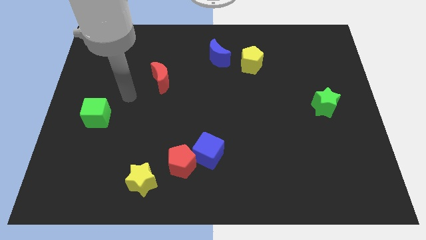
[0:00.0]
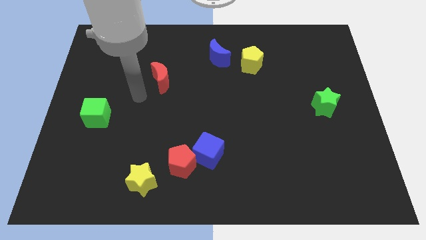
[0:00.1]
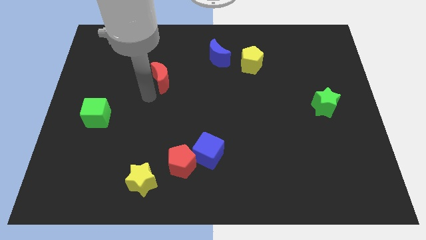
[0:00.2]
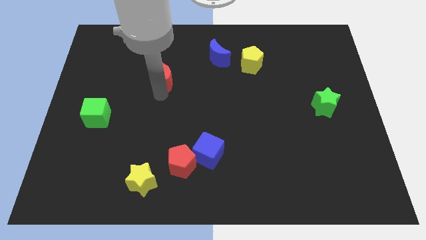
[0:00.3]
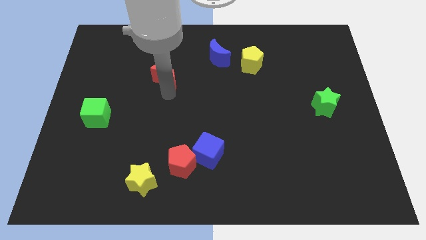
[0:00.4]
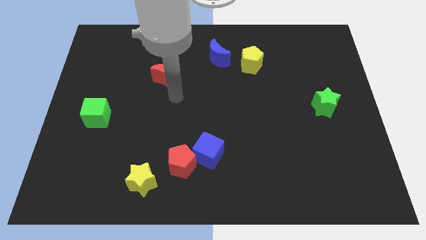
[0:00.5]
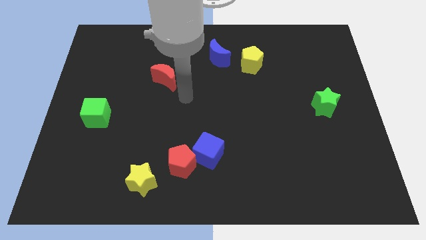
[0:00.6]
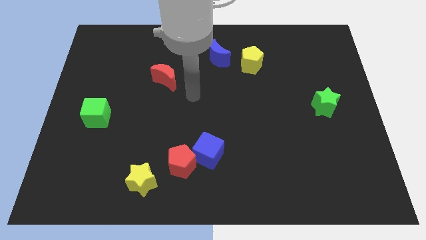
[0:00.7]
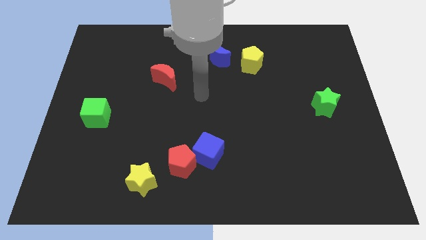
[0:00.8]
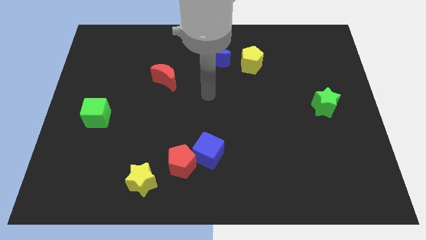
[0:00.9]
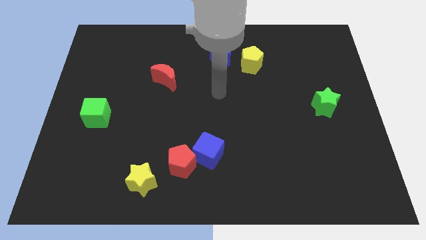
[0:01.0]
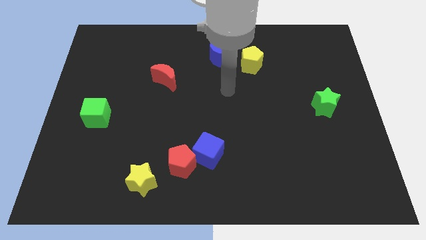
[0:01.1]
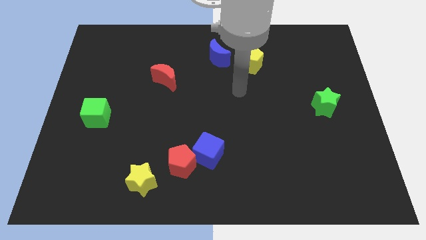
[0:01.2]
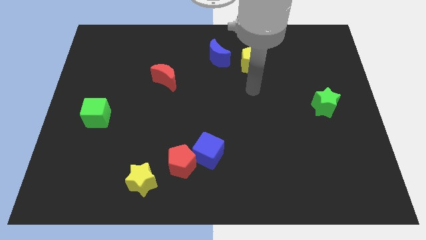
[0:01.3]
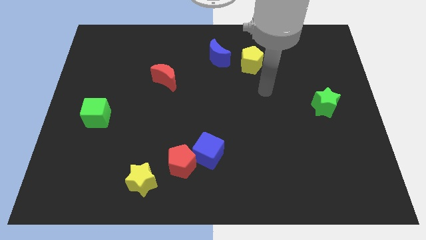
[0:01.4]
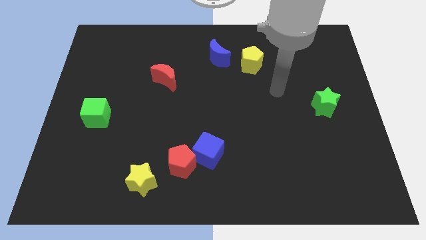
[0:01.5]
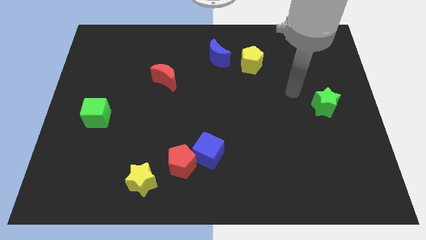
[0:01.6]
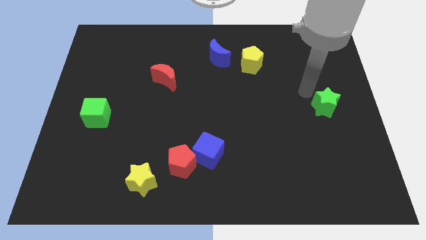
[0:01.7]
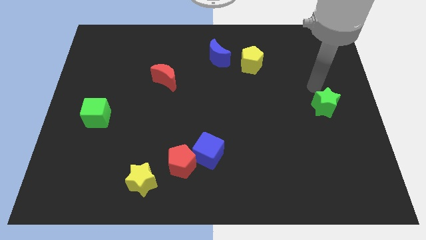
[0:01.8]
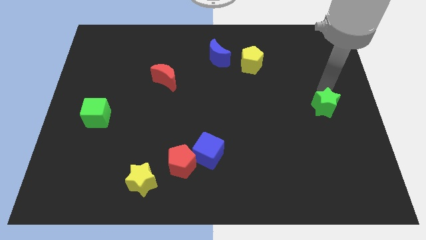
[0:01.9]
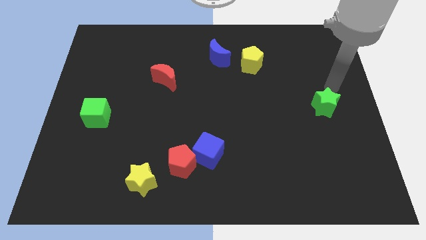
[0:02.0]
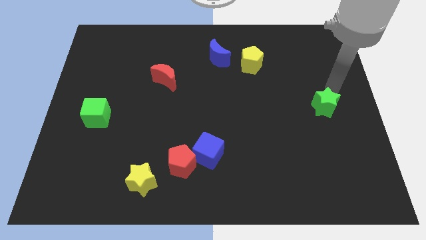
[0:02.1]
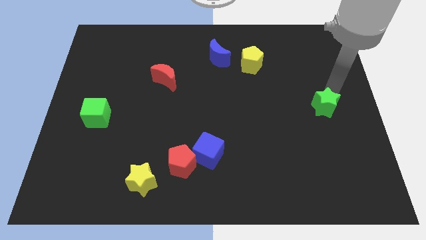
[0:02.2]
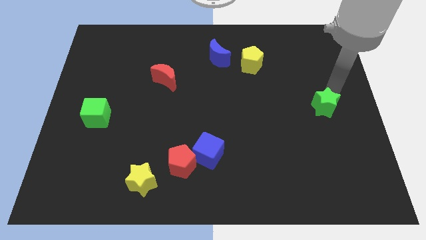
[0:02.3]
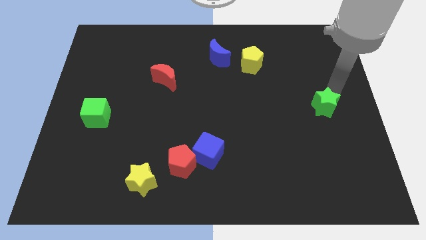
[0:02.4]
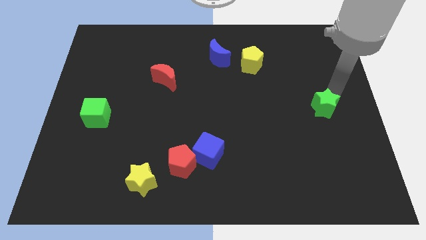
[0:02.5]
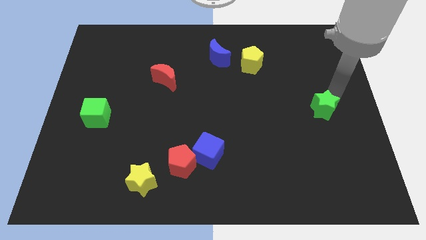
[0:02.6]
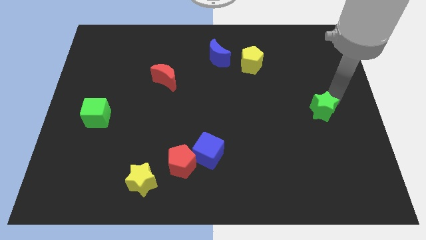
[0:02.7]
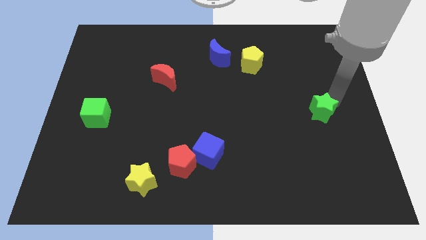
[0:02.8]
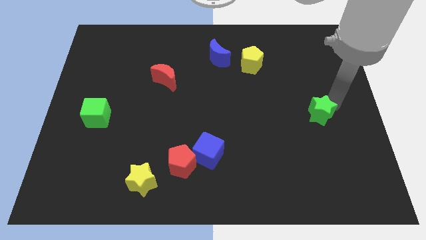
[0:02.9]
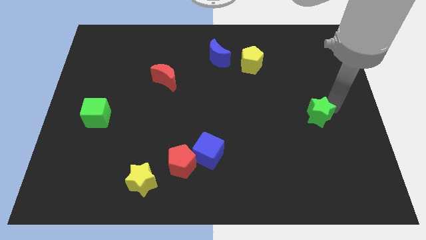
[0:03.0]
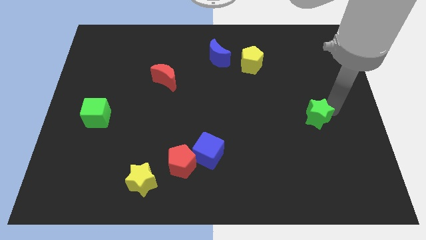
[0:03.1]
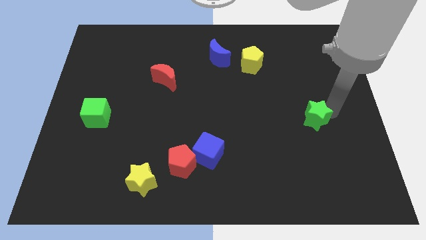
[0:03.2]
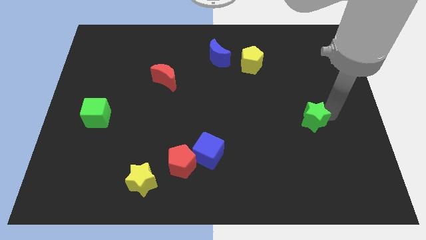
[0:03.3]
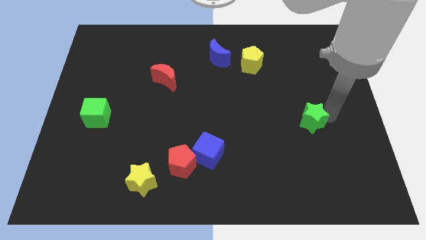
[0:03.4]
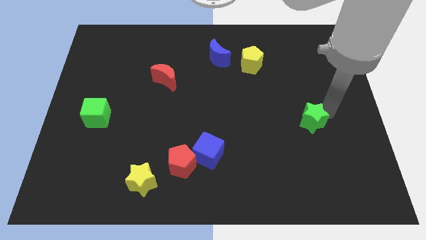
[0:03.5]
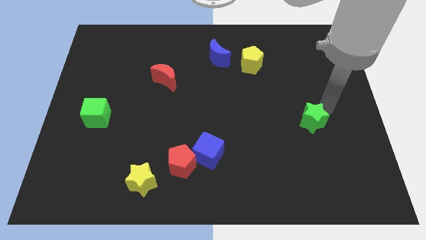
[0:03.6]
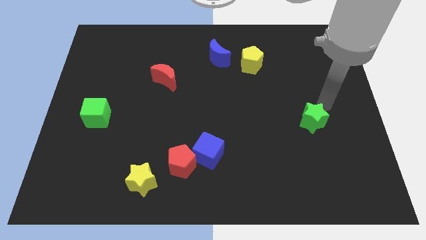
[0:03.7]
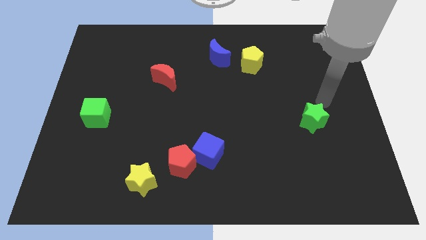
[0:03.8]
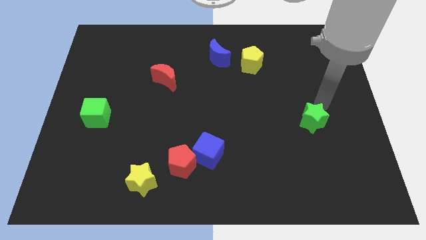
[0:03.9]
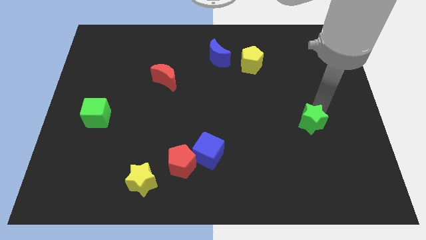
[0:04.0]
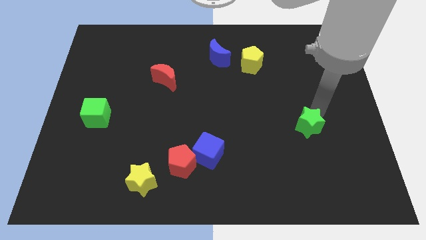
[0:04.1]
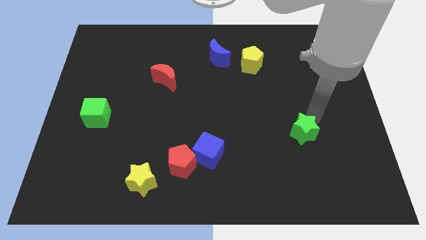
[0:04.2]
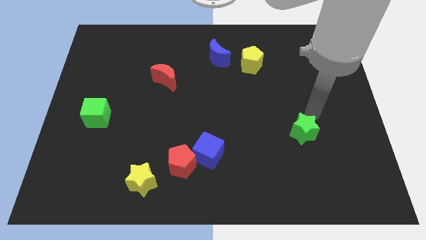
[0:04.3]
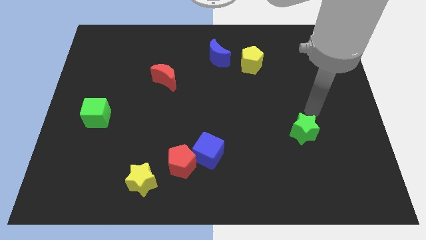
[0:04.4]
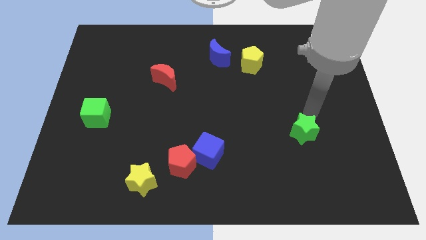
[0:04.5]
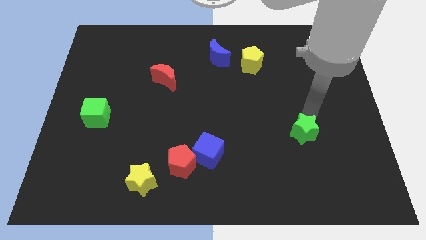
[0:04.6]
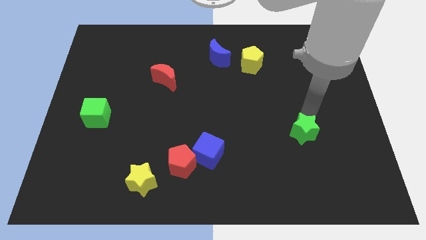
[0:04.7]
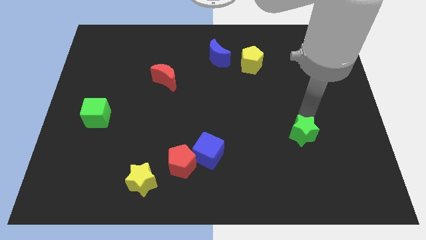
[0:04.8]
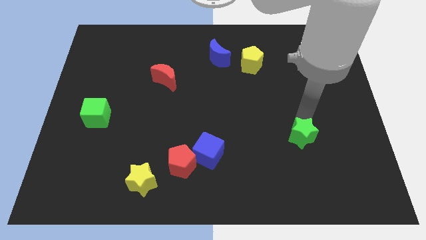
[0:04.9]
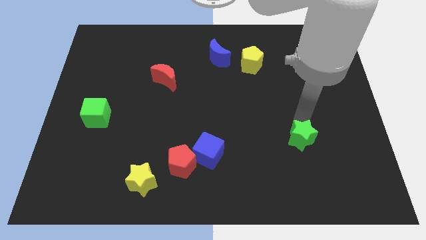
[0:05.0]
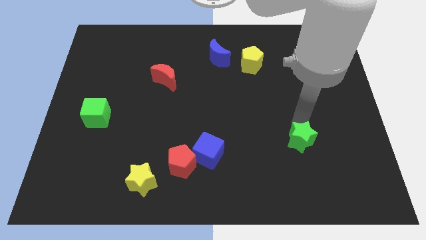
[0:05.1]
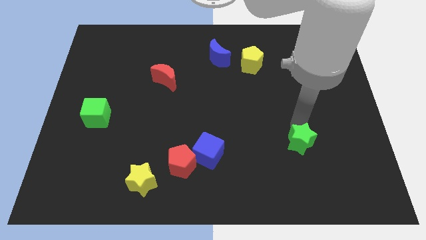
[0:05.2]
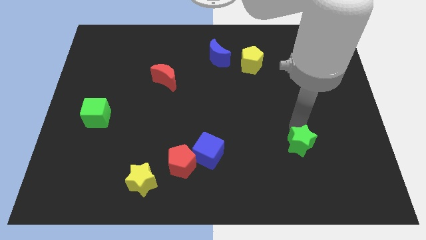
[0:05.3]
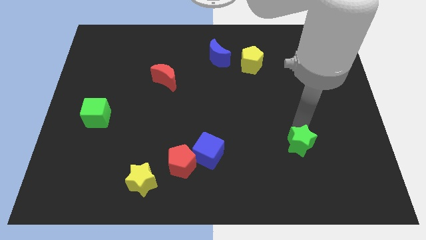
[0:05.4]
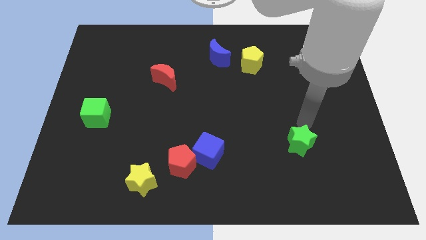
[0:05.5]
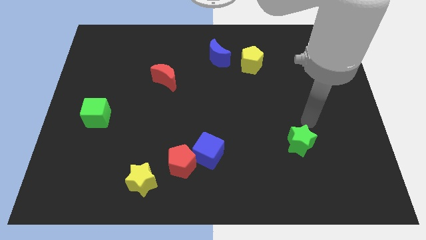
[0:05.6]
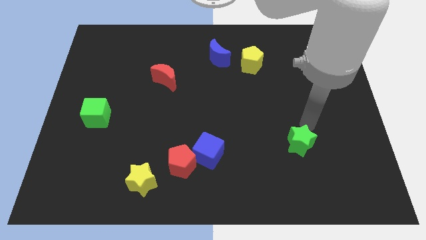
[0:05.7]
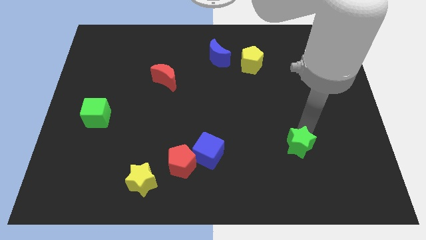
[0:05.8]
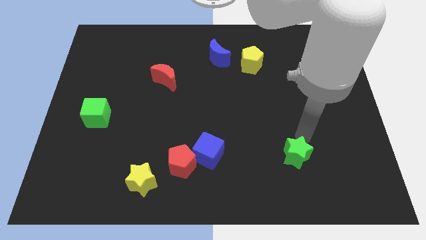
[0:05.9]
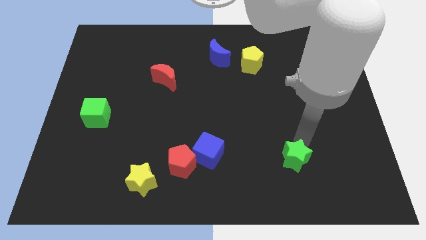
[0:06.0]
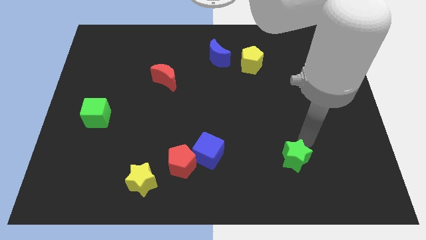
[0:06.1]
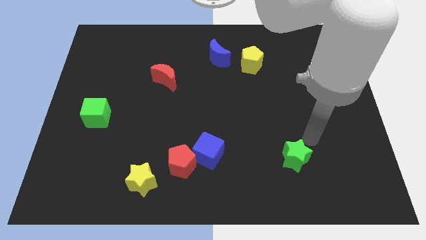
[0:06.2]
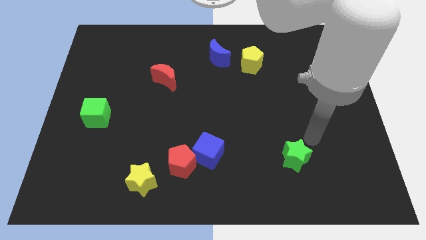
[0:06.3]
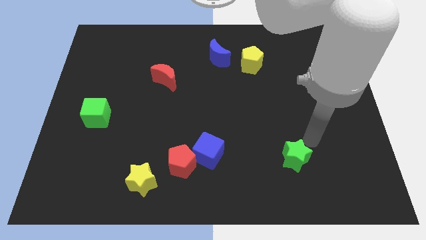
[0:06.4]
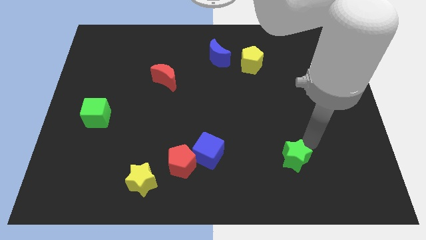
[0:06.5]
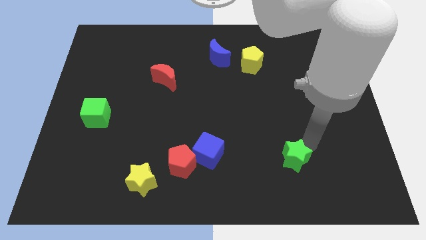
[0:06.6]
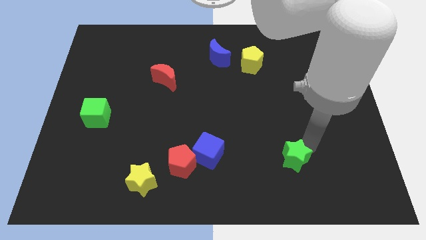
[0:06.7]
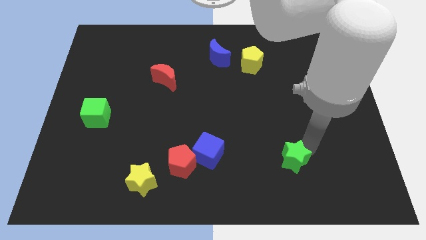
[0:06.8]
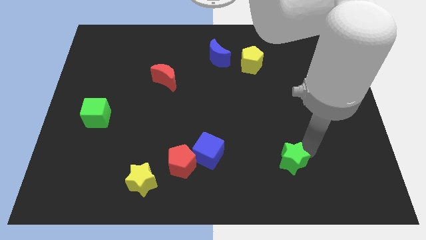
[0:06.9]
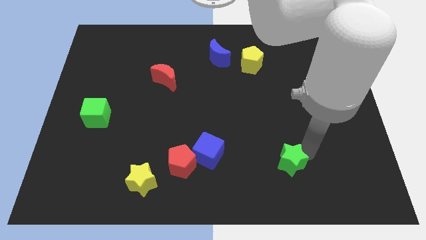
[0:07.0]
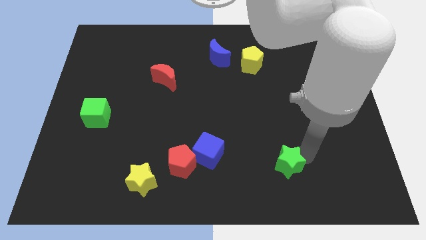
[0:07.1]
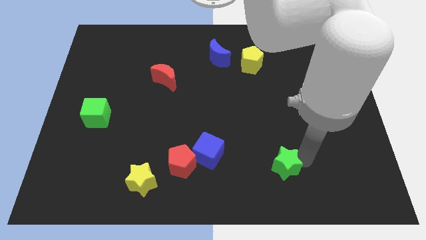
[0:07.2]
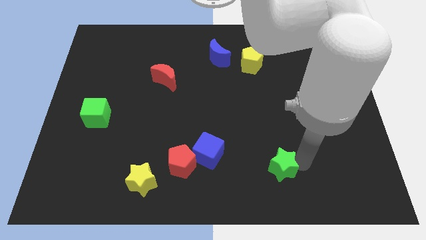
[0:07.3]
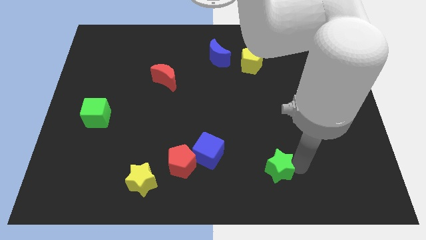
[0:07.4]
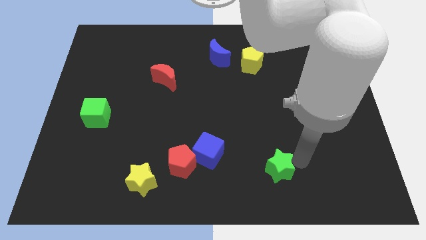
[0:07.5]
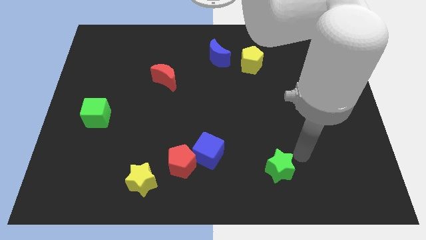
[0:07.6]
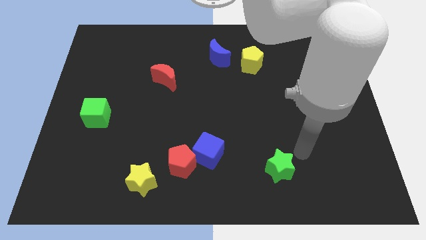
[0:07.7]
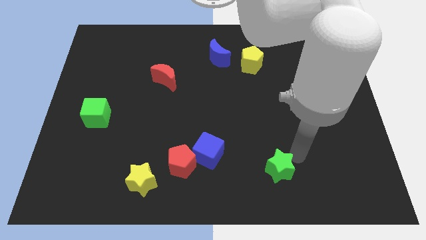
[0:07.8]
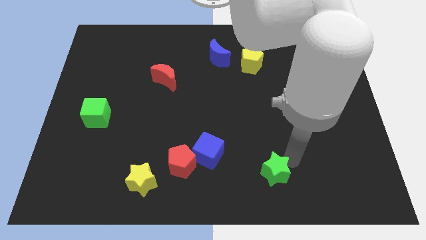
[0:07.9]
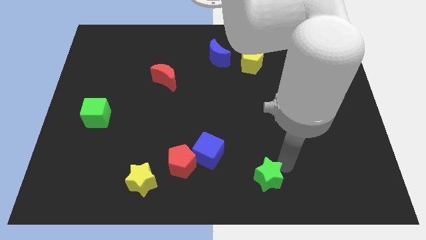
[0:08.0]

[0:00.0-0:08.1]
slide the green star to the bottom side
